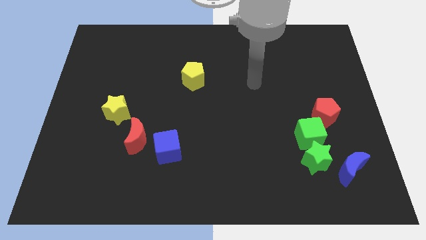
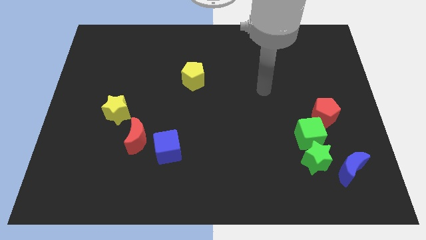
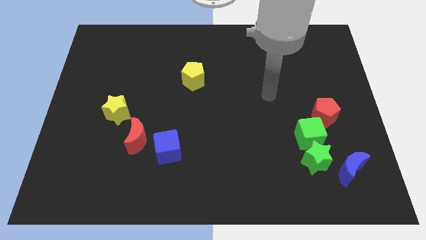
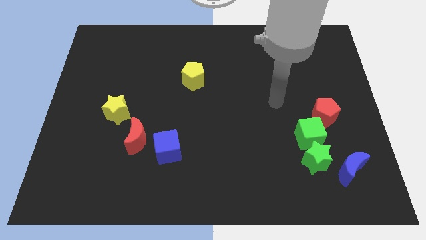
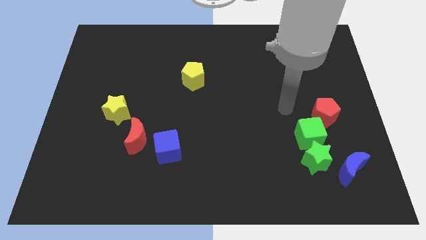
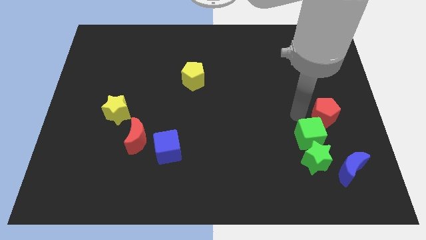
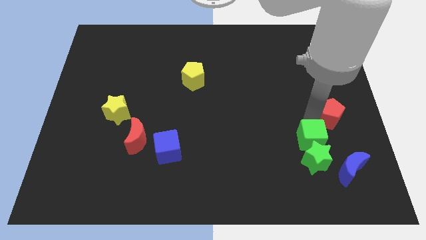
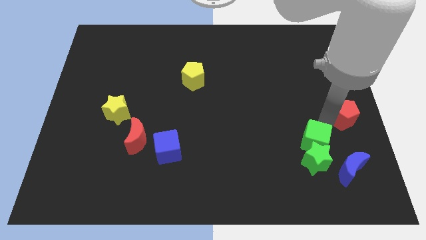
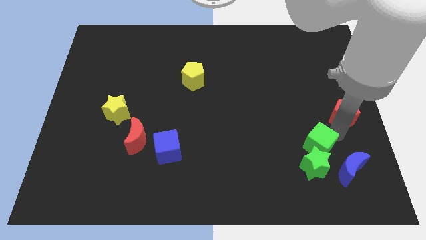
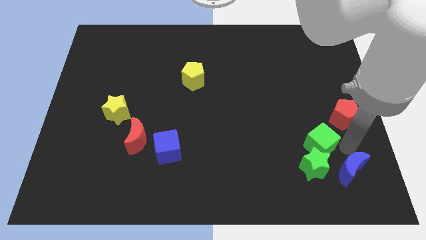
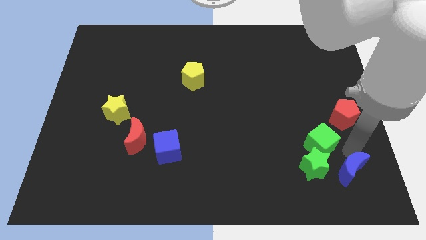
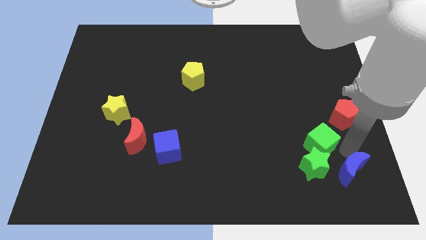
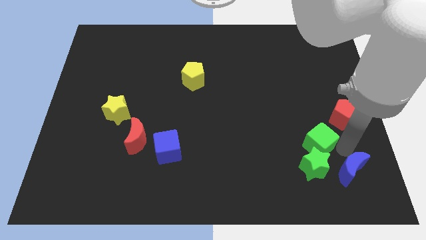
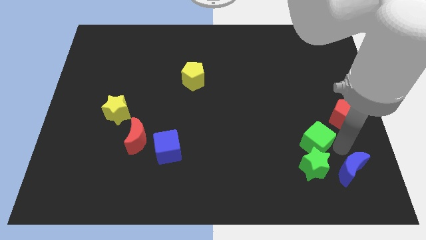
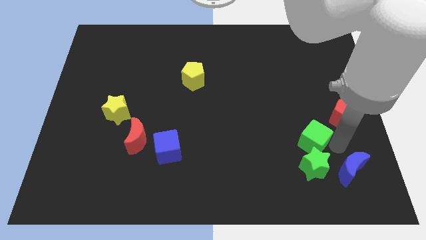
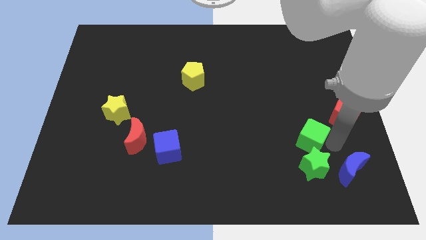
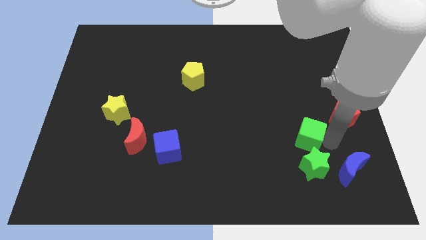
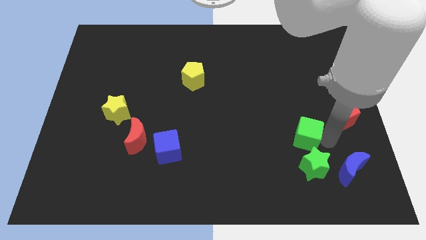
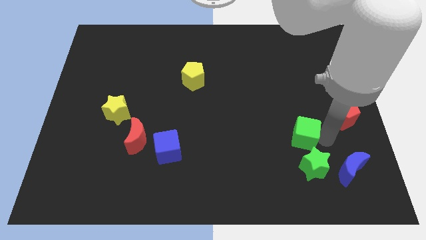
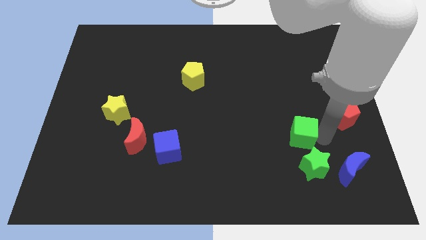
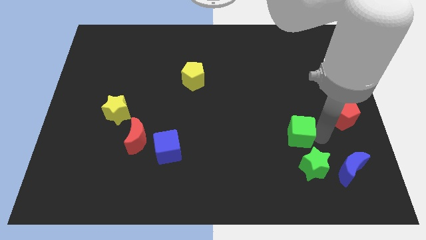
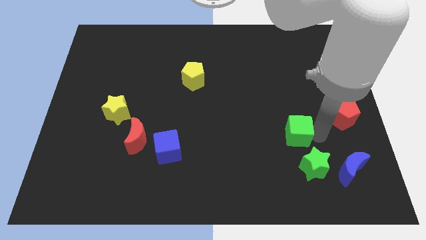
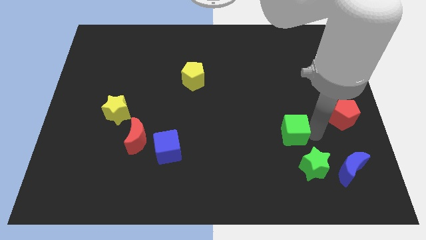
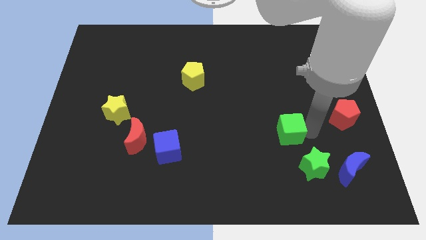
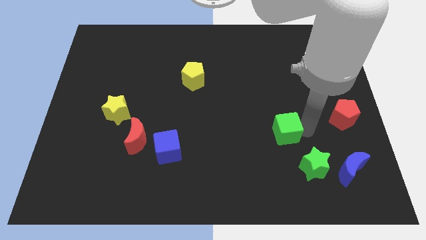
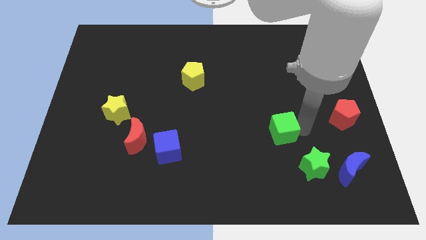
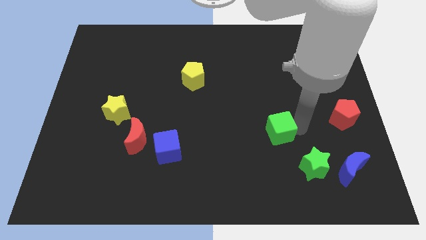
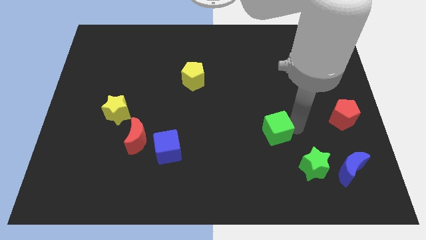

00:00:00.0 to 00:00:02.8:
move the green cube left slightly

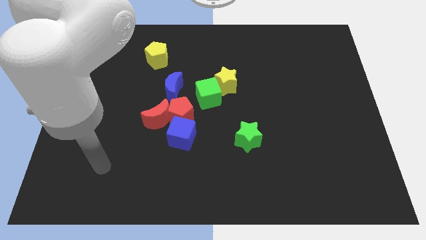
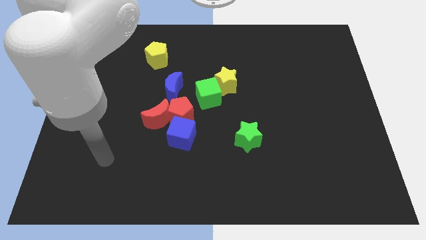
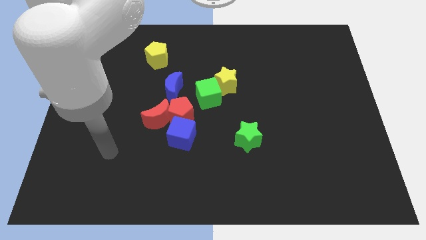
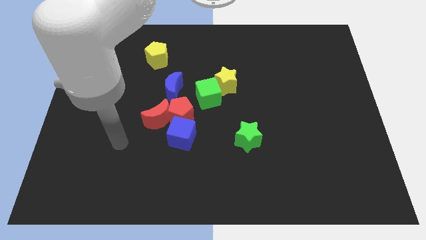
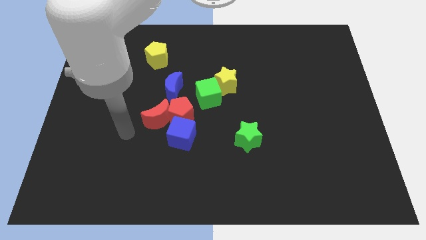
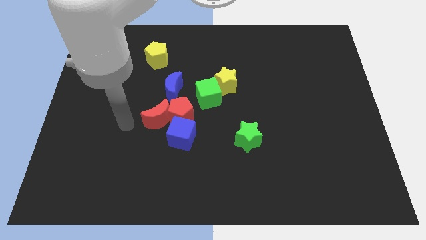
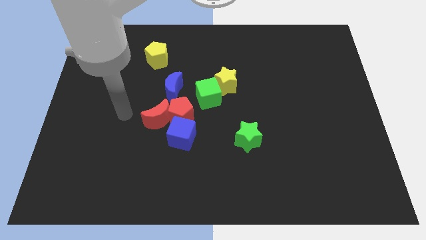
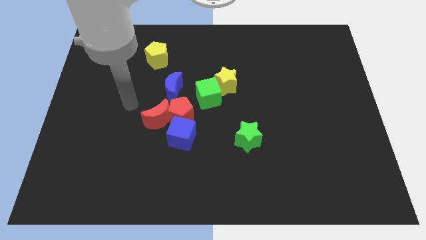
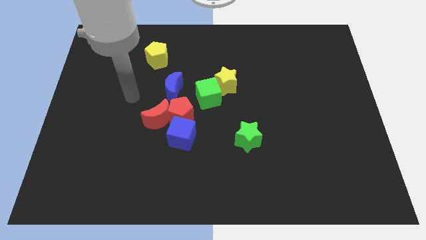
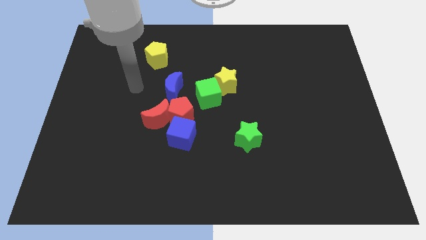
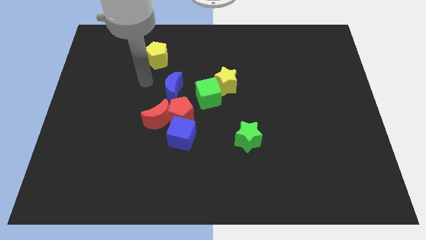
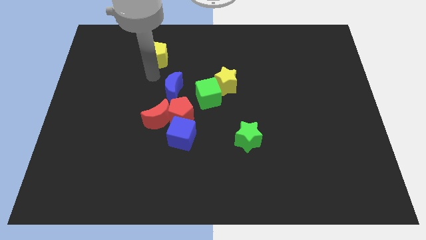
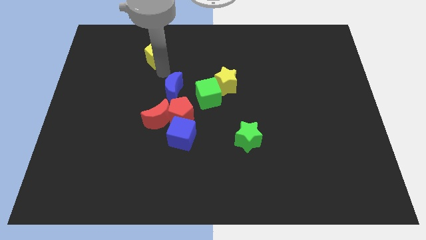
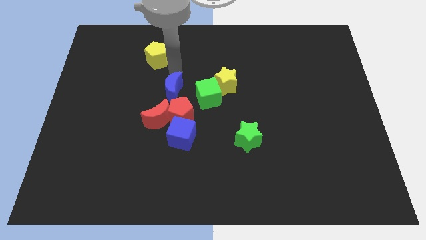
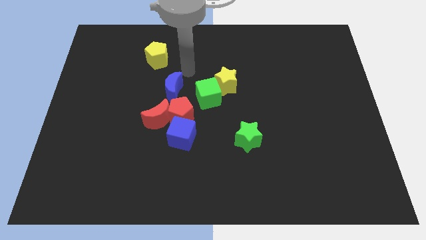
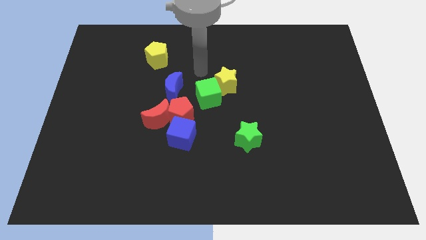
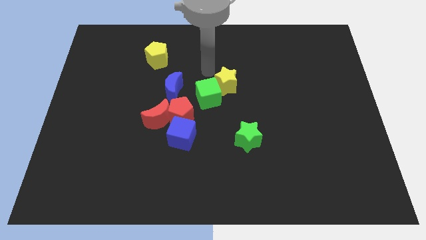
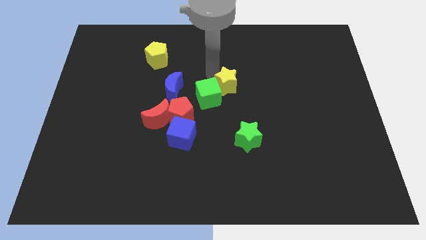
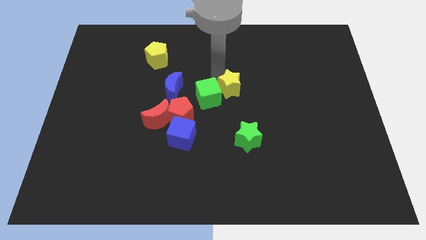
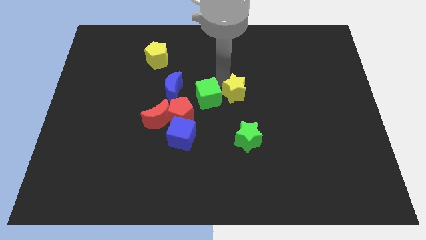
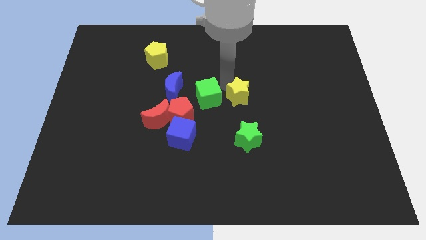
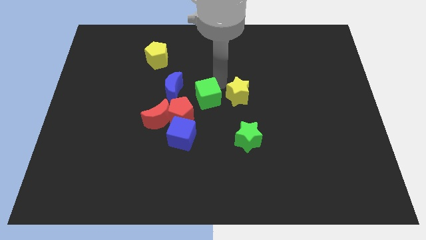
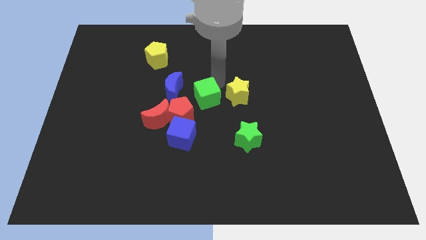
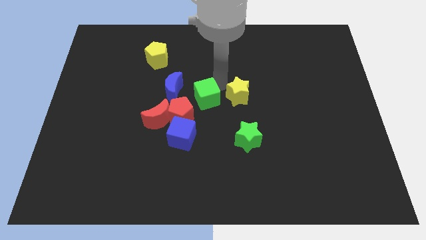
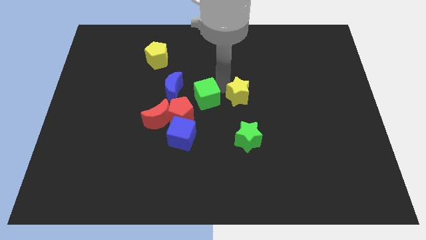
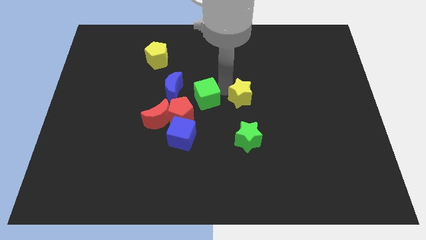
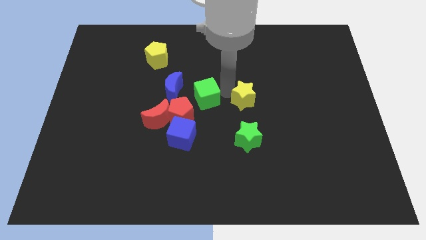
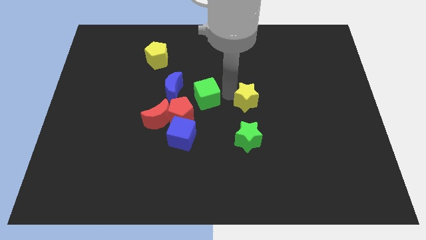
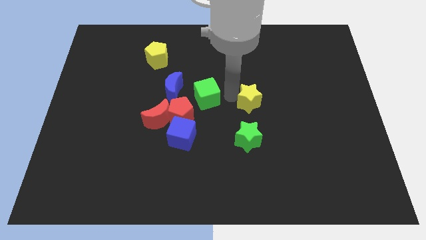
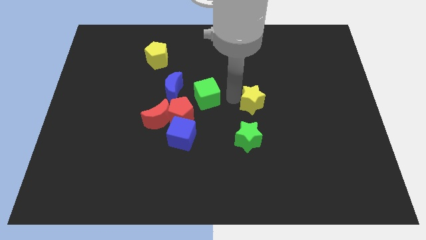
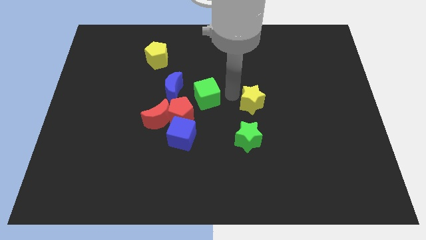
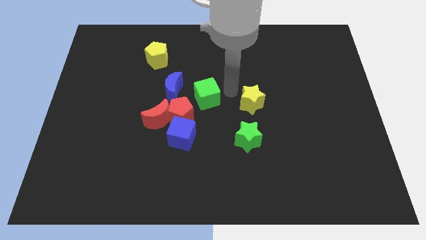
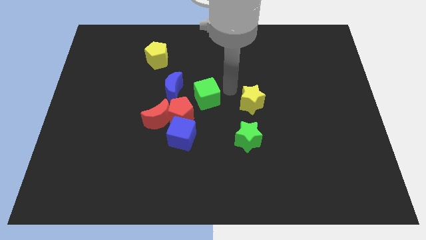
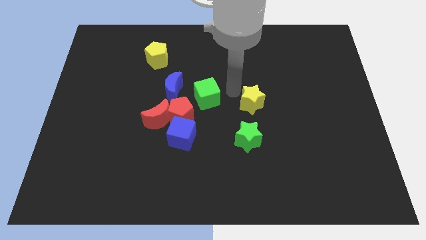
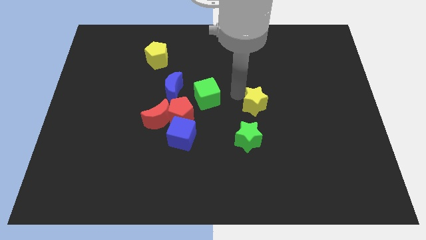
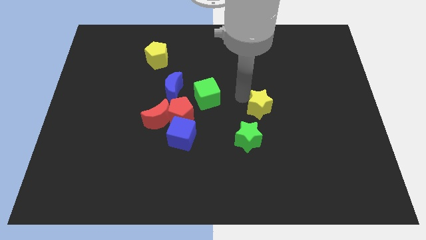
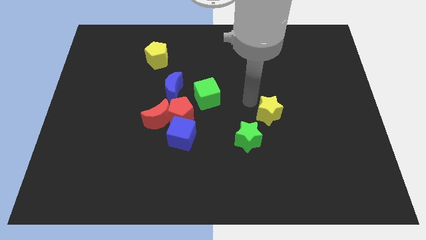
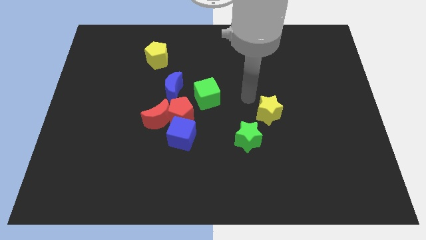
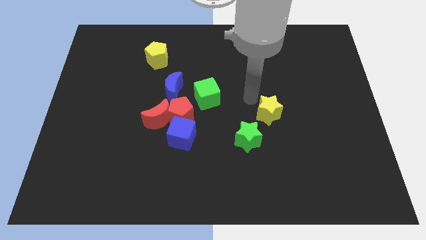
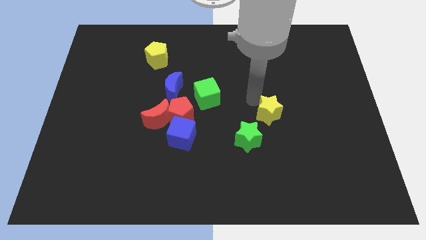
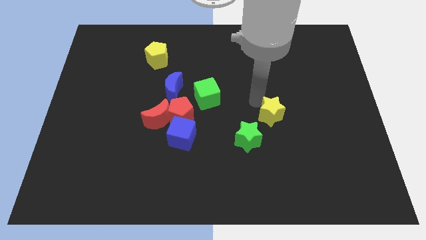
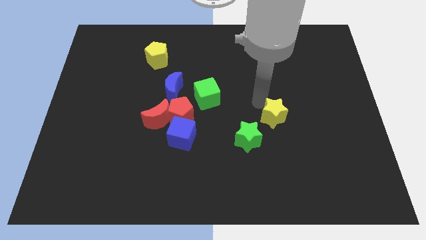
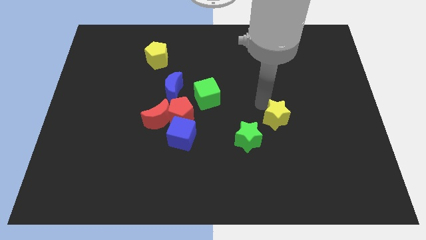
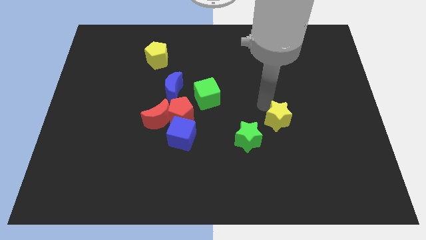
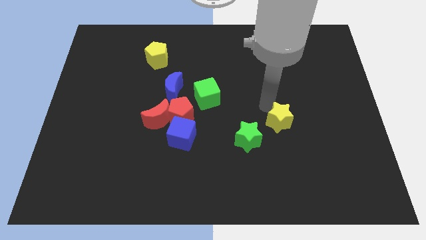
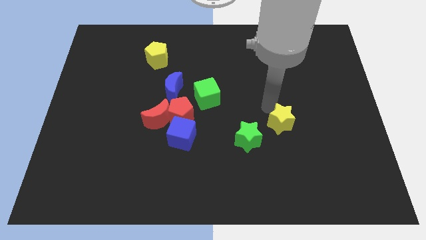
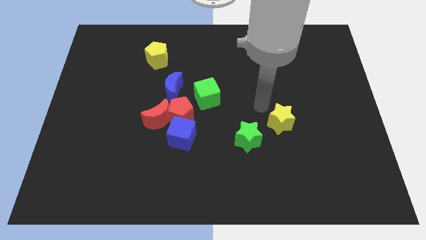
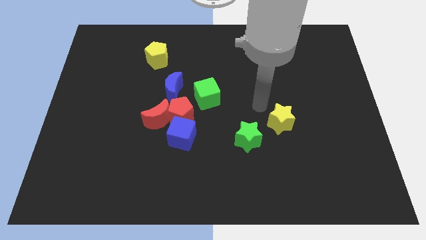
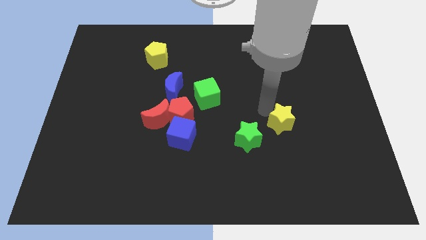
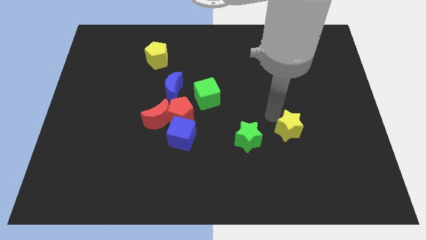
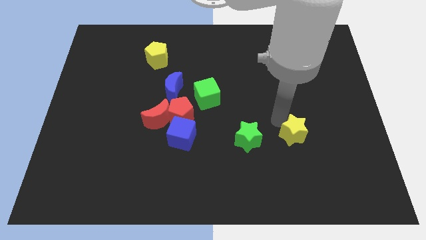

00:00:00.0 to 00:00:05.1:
slide the yellow star down and then to the right
